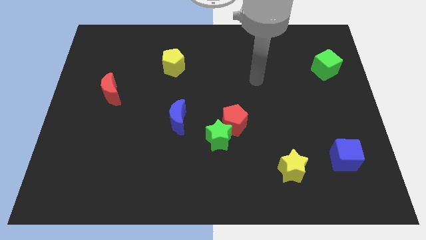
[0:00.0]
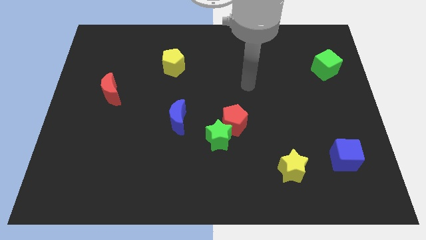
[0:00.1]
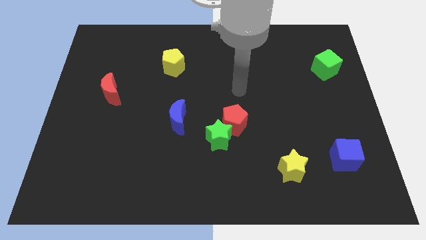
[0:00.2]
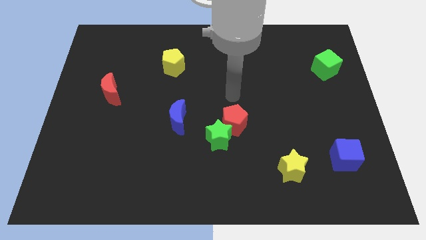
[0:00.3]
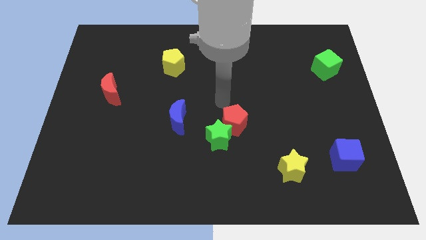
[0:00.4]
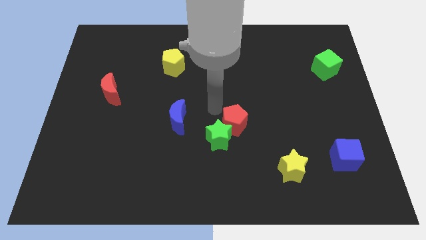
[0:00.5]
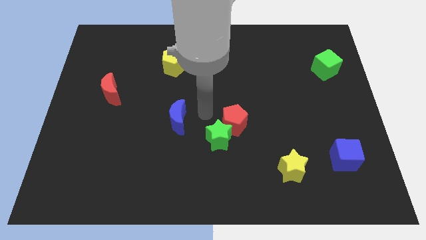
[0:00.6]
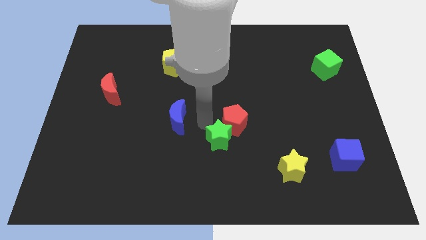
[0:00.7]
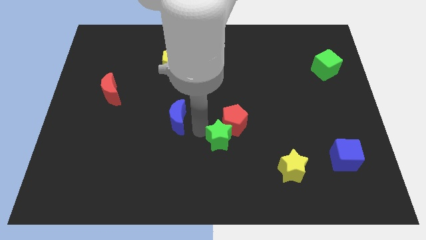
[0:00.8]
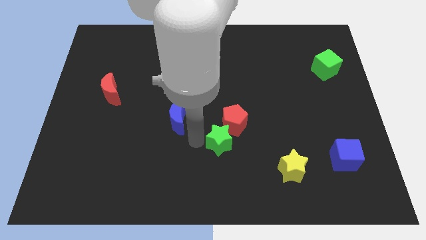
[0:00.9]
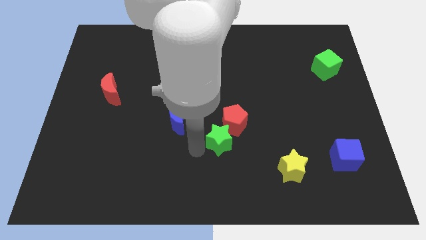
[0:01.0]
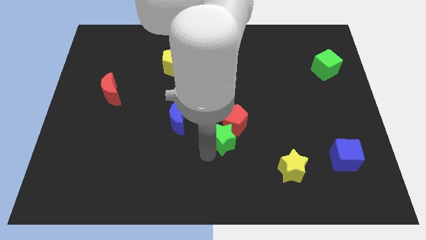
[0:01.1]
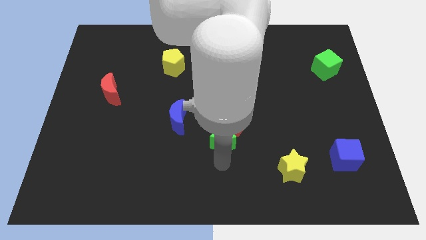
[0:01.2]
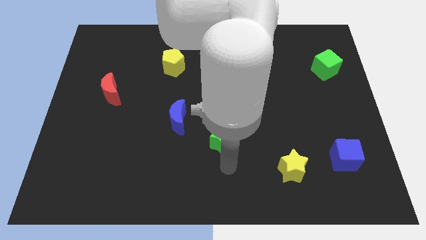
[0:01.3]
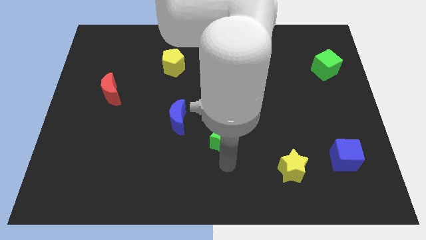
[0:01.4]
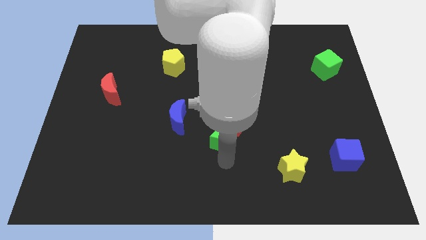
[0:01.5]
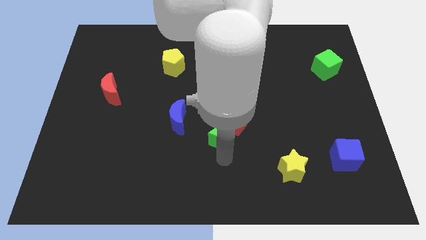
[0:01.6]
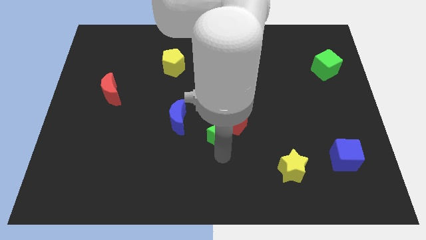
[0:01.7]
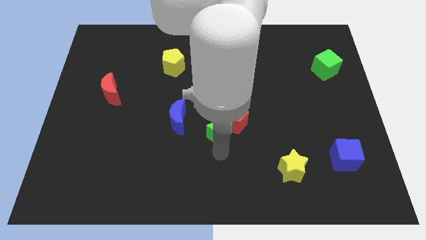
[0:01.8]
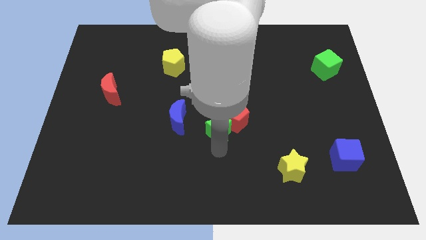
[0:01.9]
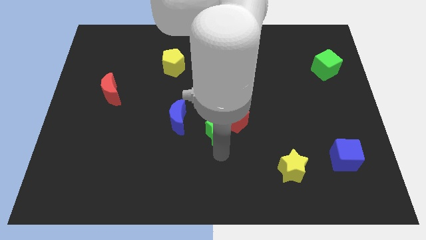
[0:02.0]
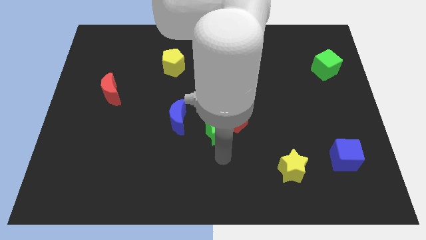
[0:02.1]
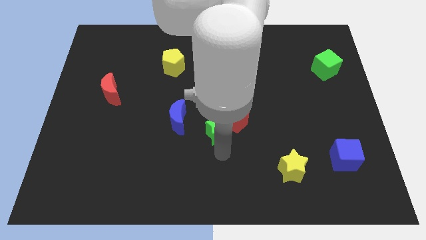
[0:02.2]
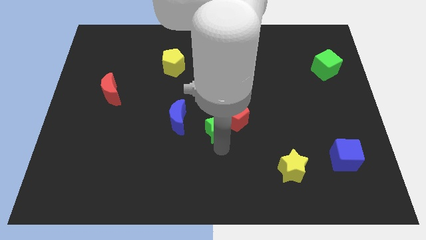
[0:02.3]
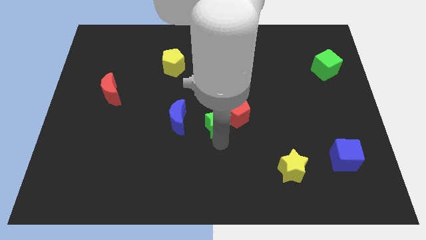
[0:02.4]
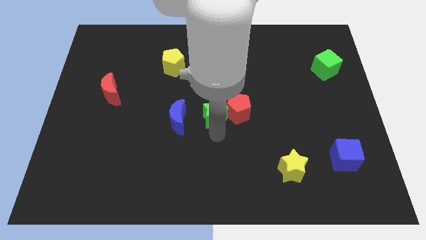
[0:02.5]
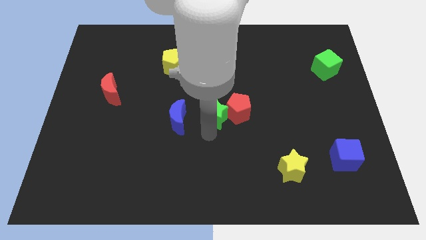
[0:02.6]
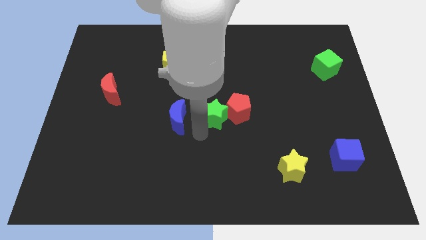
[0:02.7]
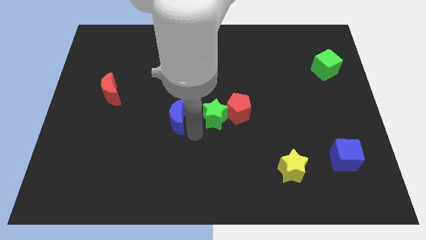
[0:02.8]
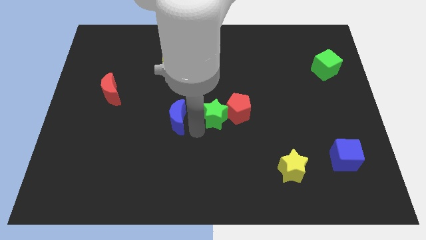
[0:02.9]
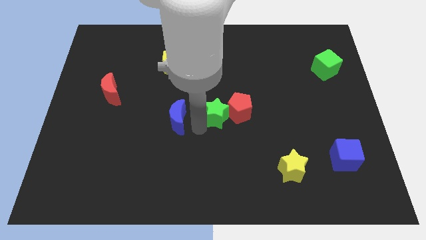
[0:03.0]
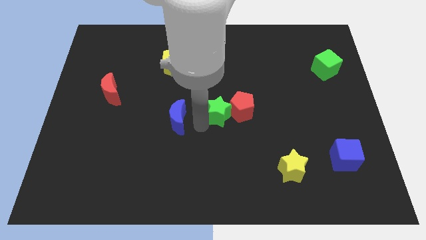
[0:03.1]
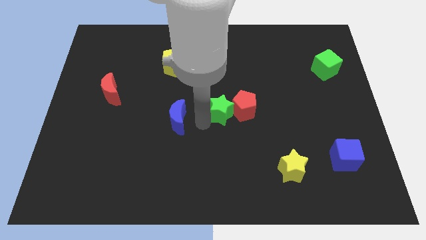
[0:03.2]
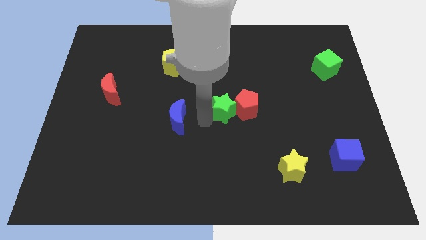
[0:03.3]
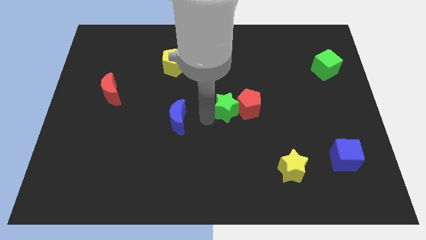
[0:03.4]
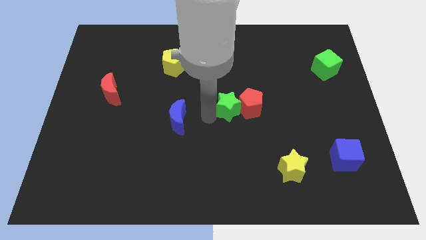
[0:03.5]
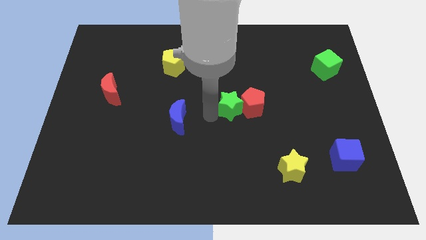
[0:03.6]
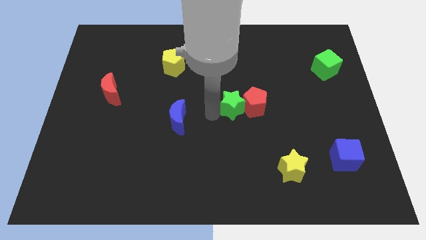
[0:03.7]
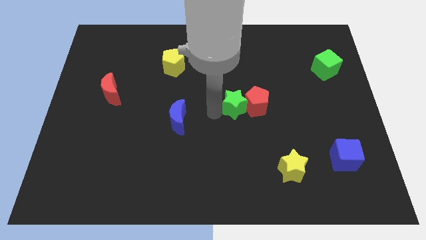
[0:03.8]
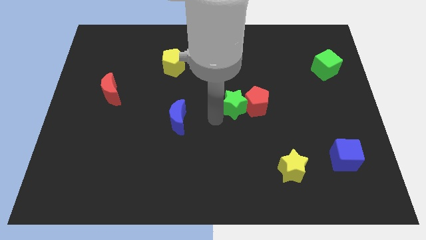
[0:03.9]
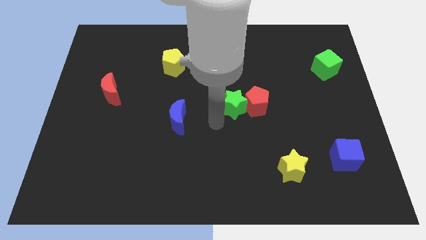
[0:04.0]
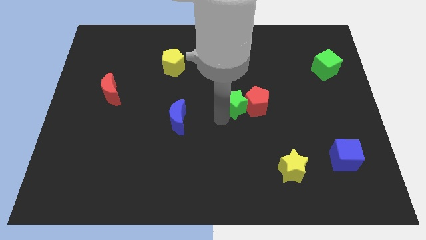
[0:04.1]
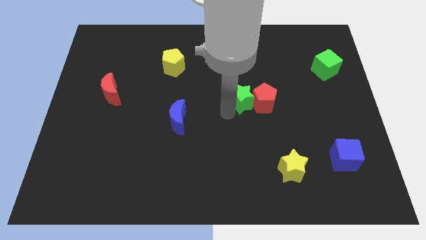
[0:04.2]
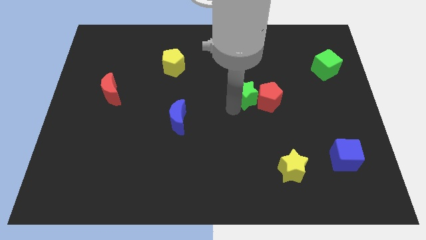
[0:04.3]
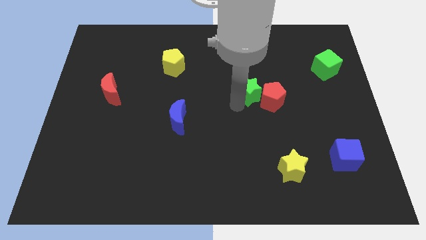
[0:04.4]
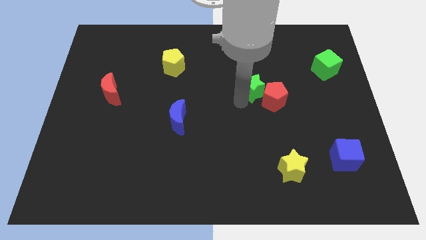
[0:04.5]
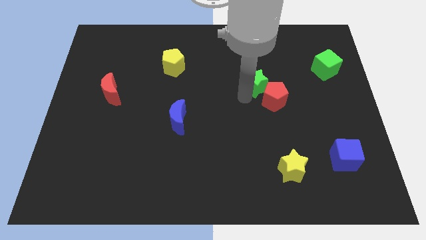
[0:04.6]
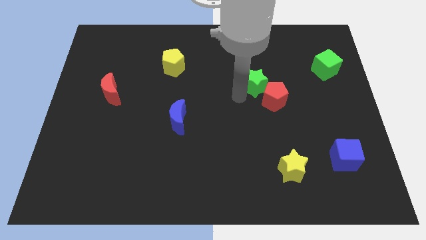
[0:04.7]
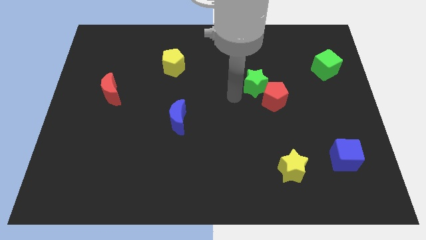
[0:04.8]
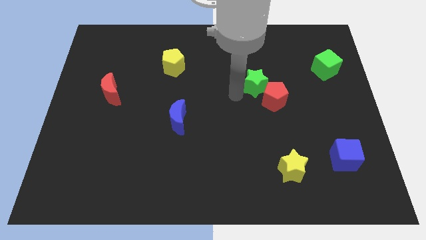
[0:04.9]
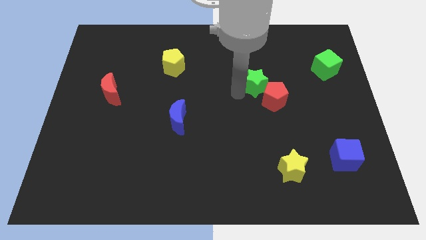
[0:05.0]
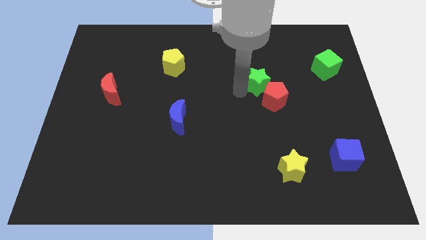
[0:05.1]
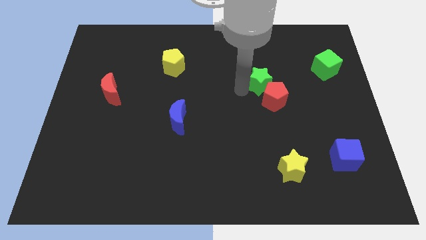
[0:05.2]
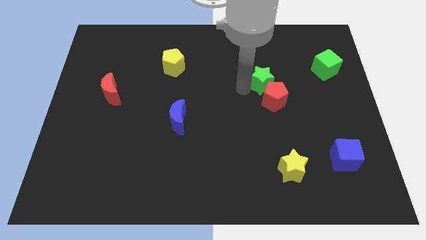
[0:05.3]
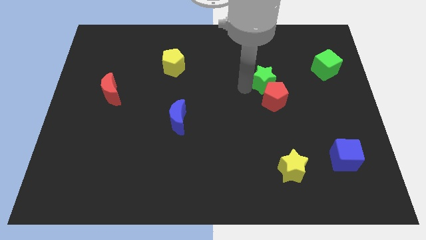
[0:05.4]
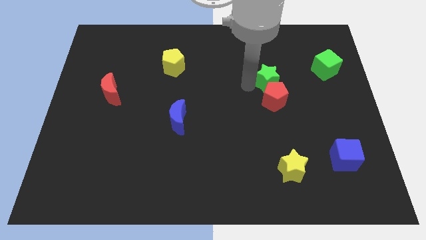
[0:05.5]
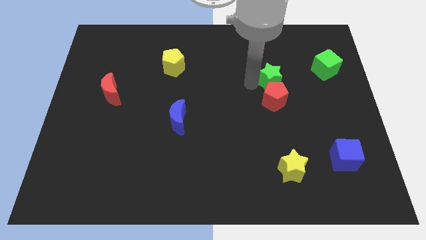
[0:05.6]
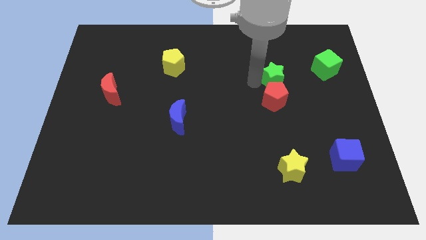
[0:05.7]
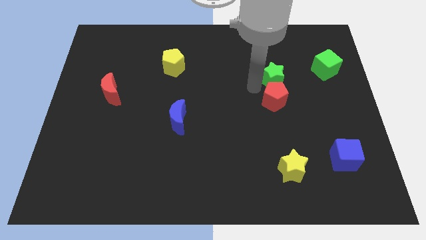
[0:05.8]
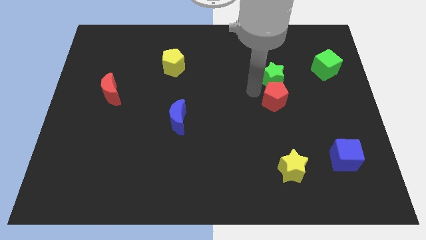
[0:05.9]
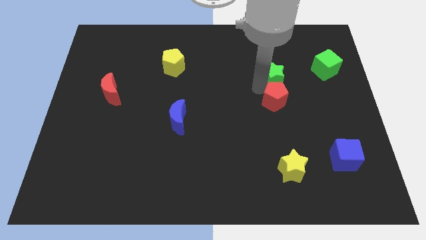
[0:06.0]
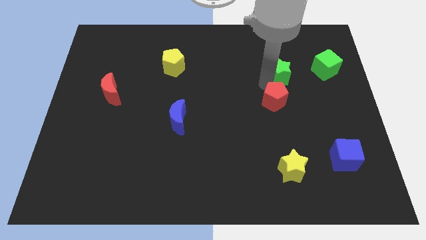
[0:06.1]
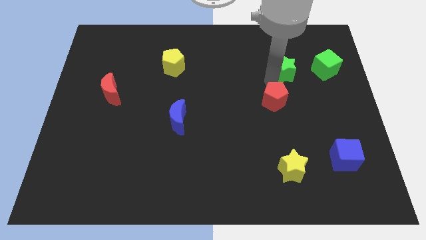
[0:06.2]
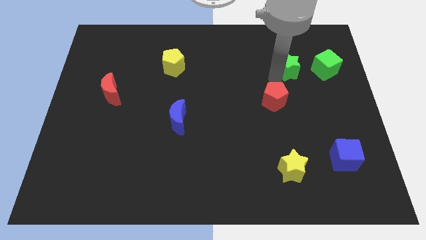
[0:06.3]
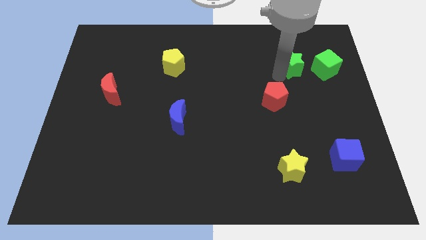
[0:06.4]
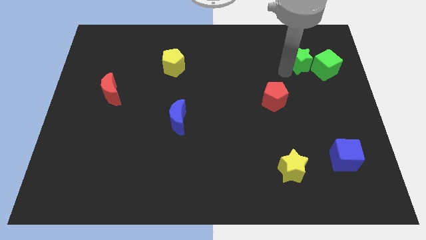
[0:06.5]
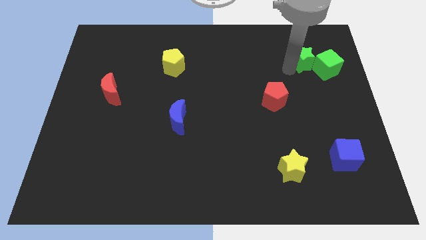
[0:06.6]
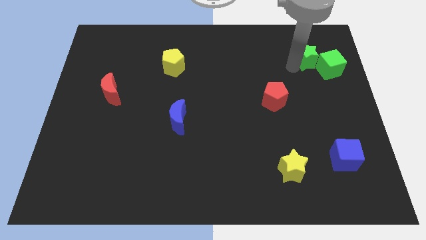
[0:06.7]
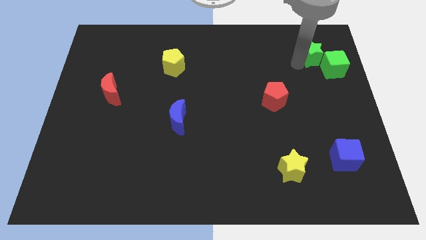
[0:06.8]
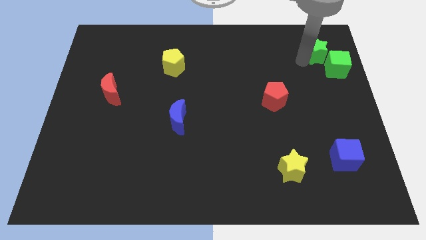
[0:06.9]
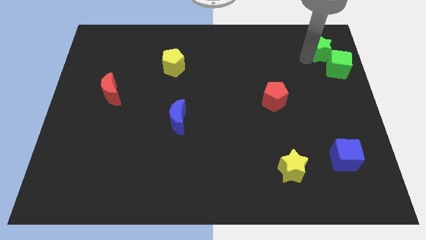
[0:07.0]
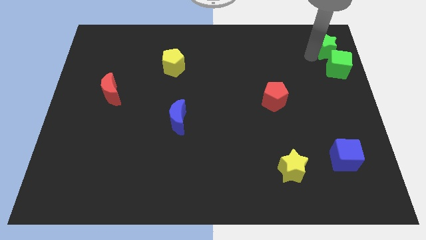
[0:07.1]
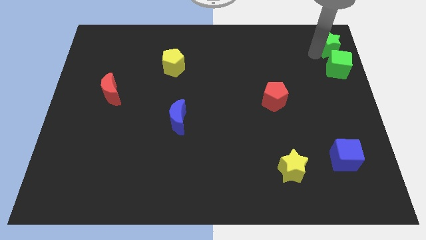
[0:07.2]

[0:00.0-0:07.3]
slide the green star to the upper right corner
